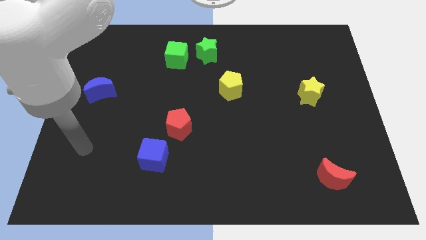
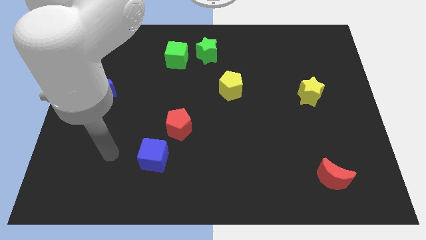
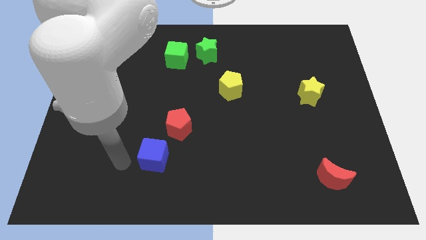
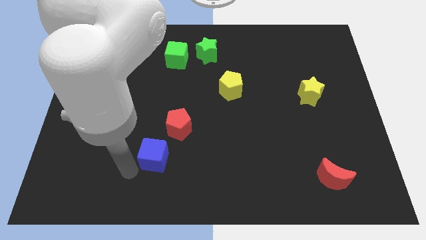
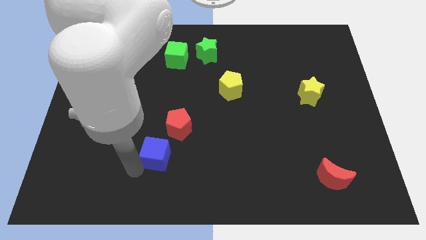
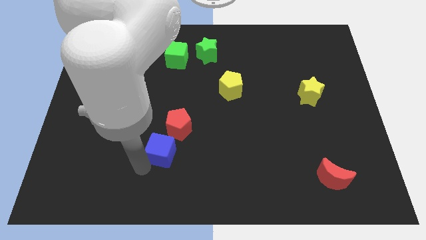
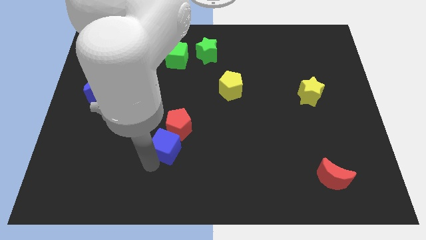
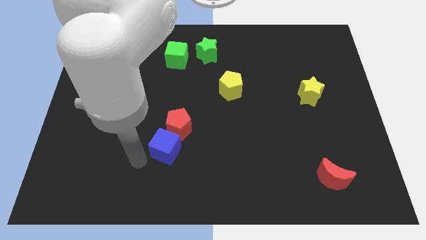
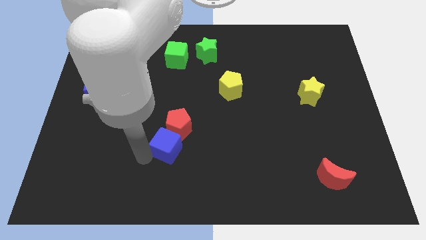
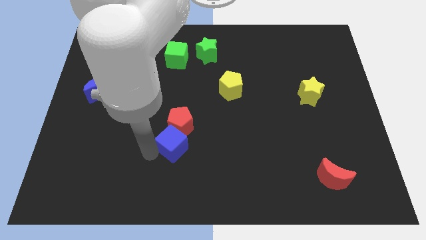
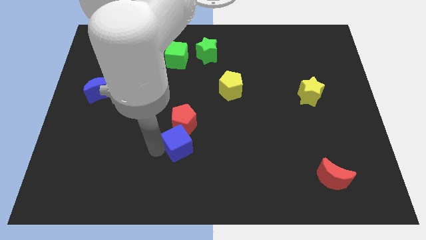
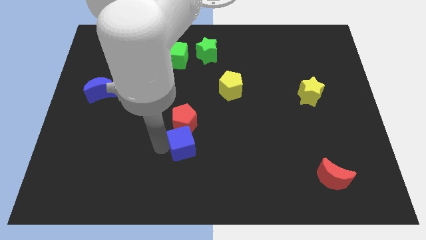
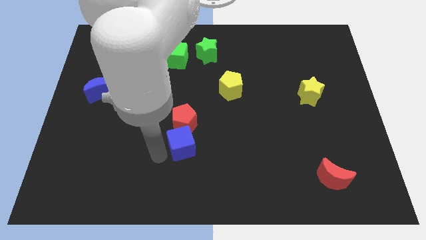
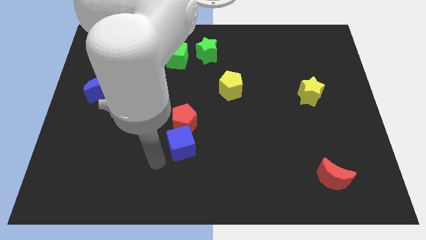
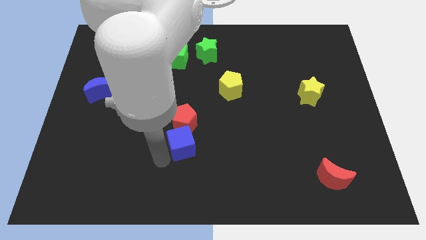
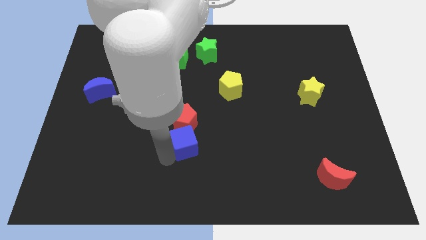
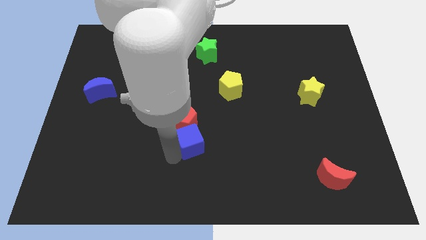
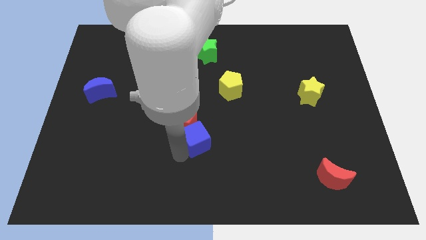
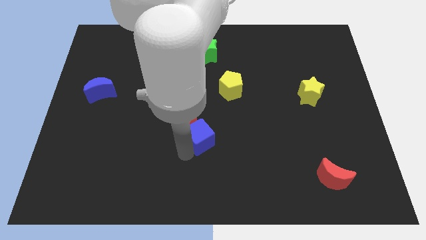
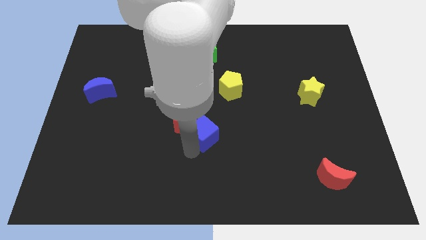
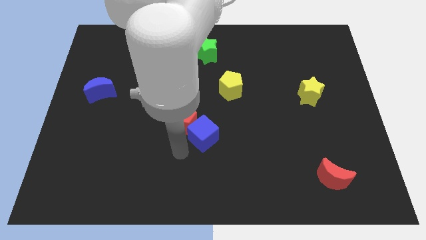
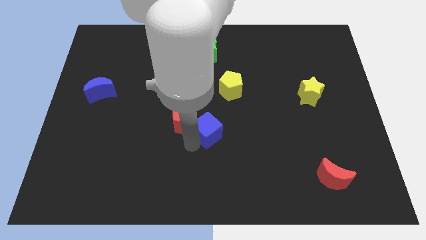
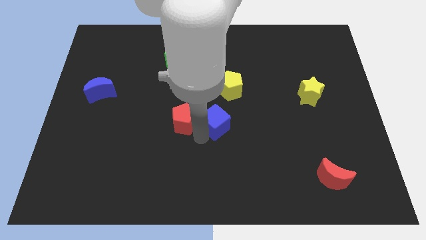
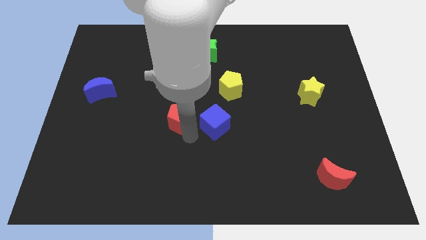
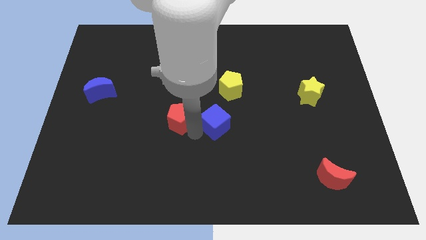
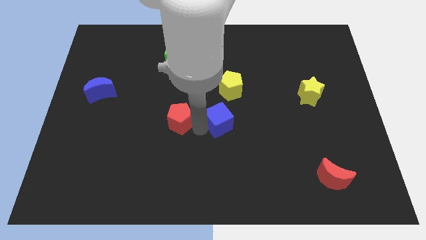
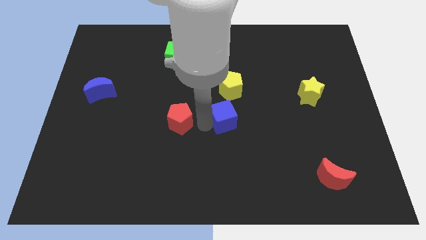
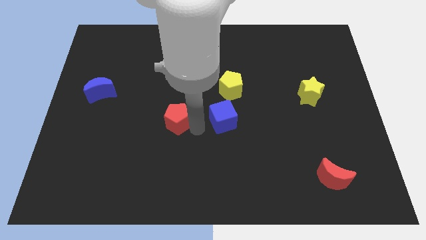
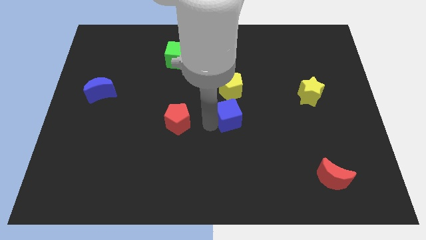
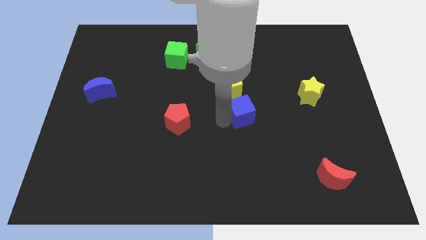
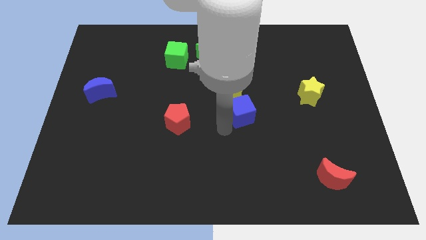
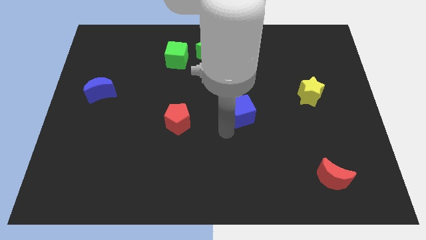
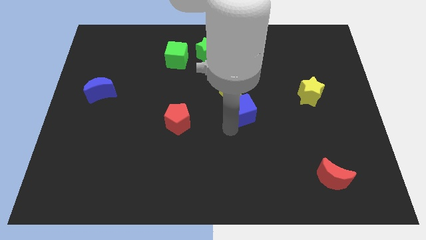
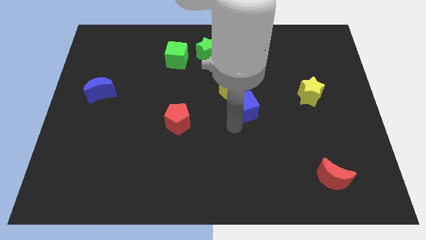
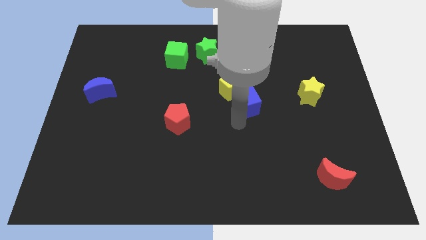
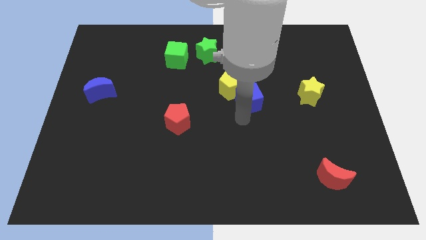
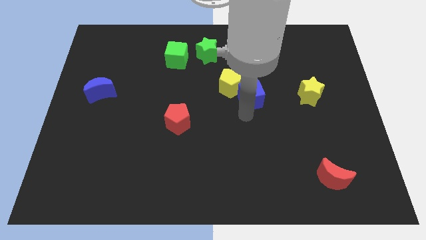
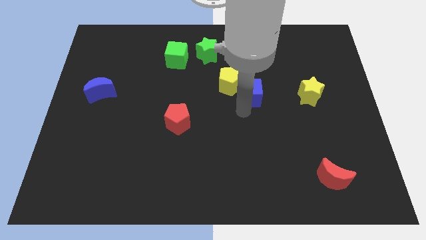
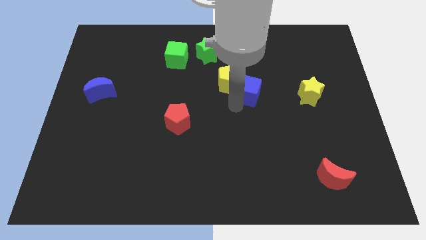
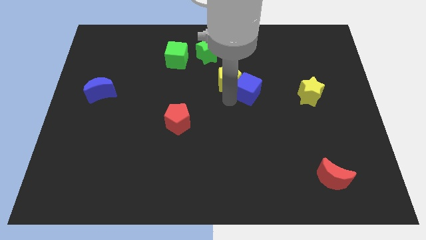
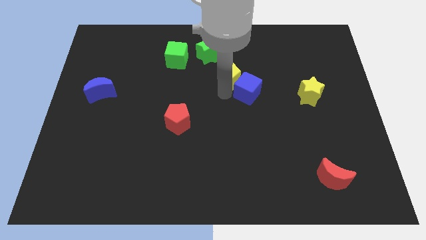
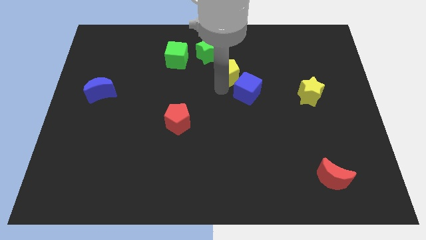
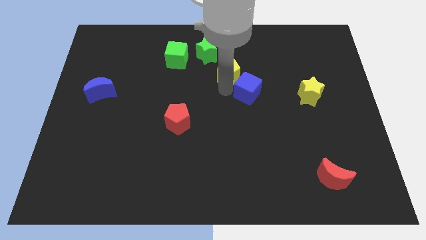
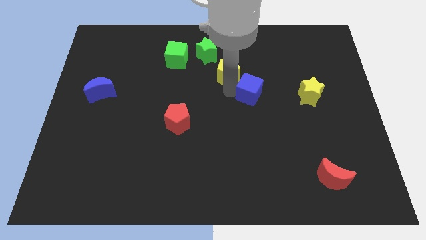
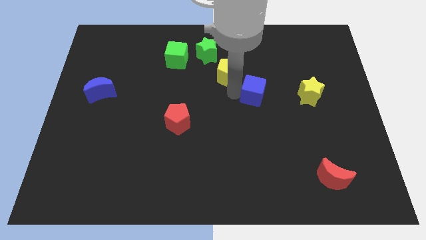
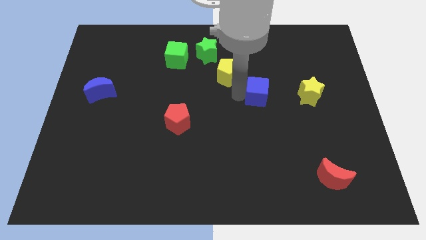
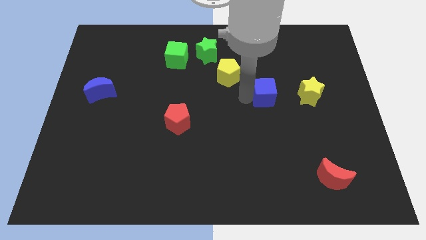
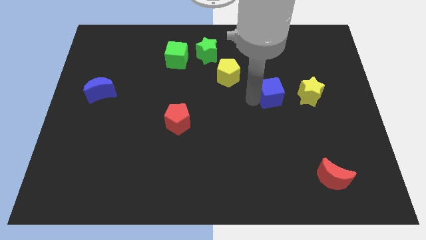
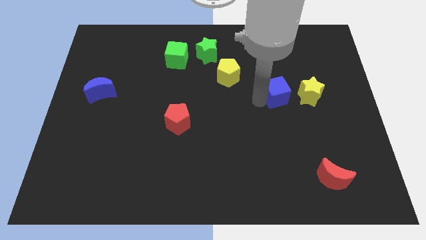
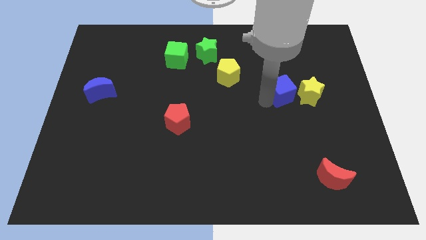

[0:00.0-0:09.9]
move the blue cube to the top left of the yellow star

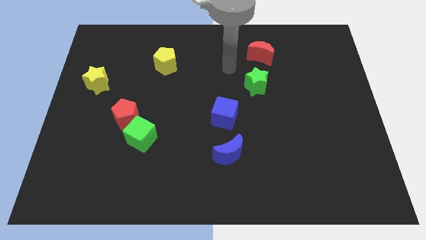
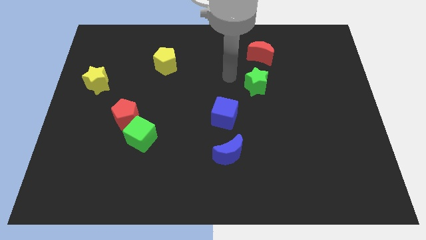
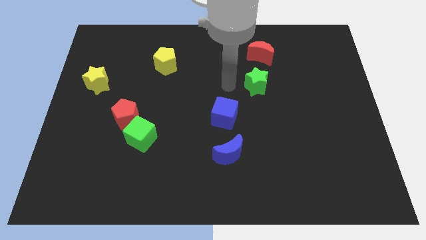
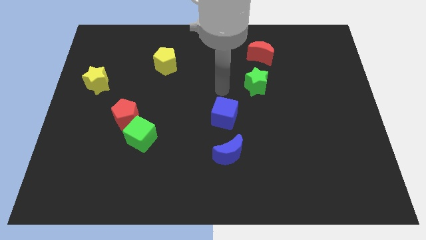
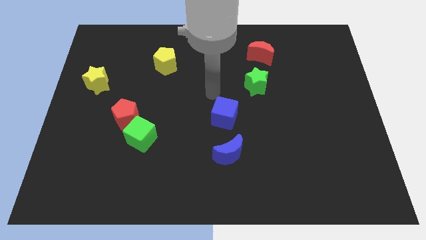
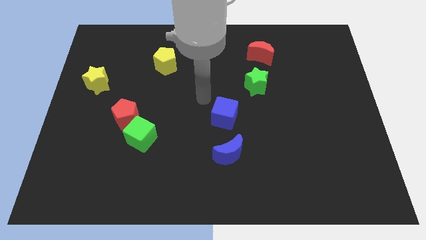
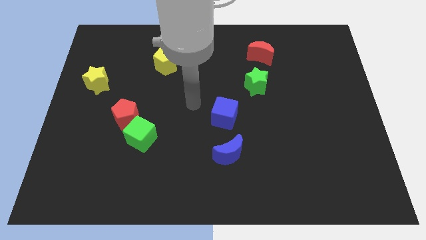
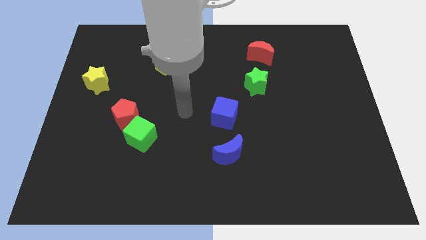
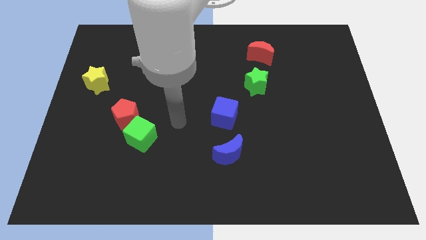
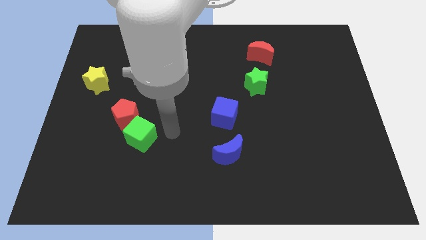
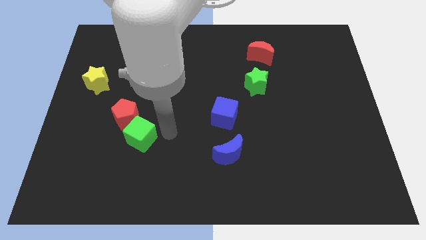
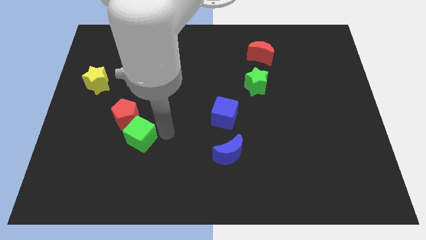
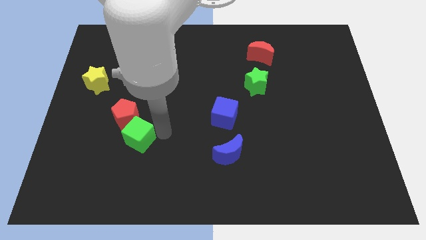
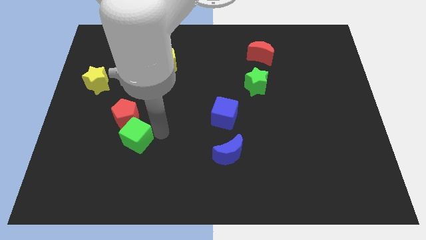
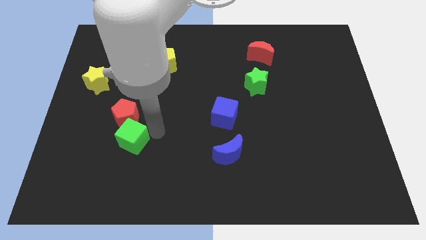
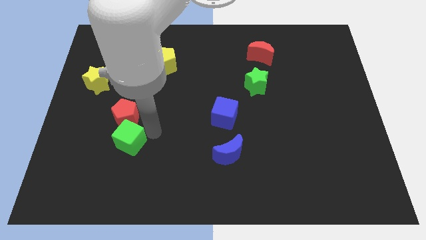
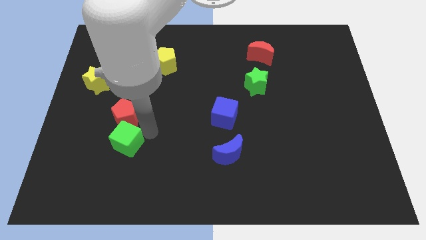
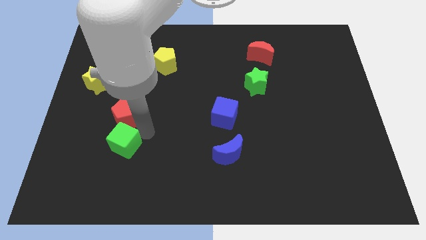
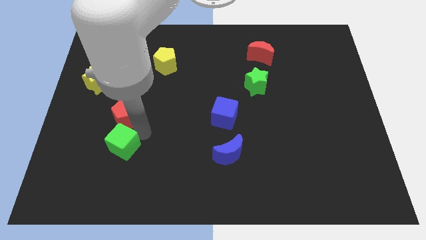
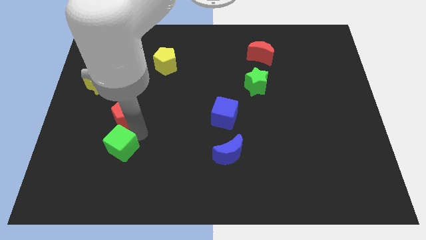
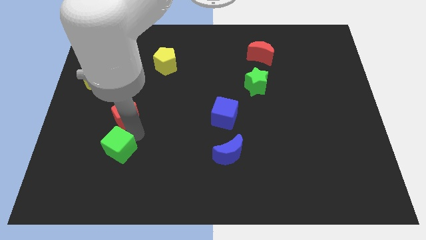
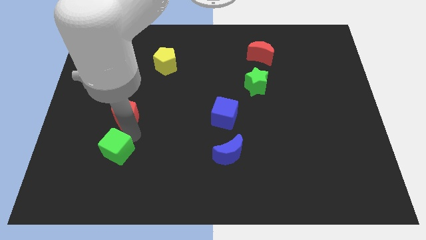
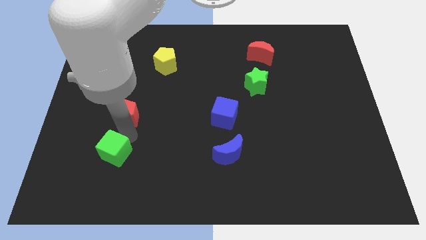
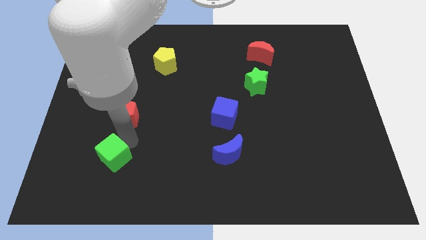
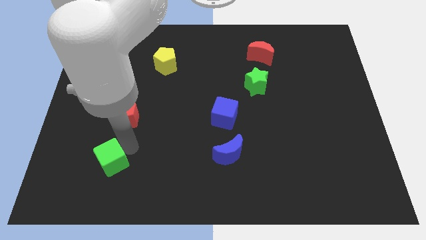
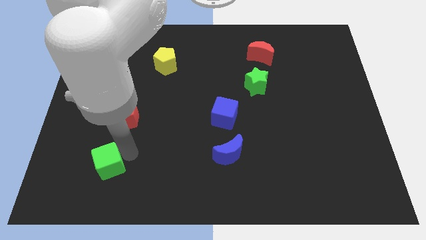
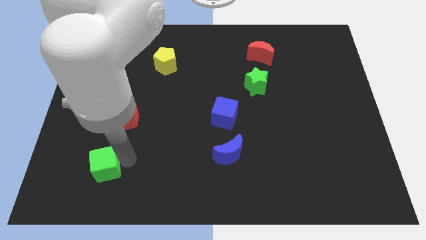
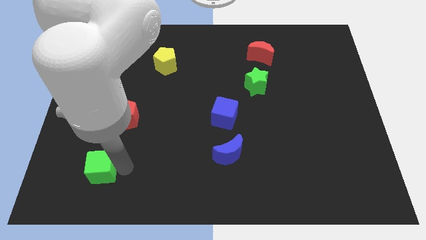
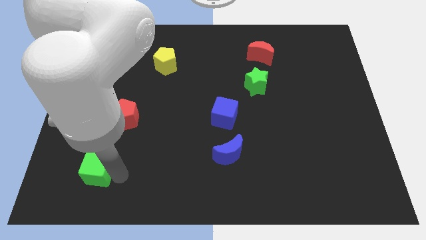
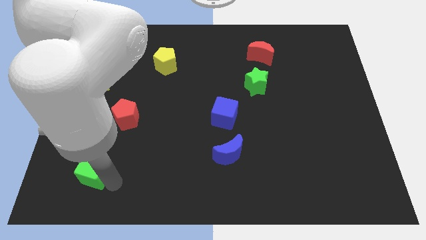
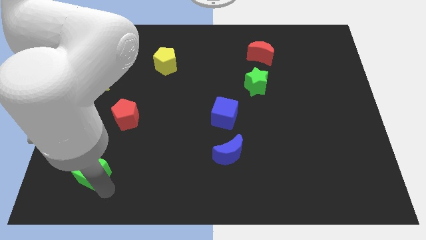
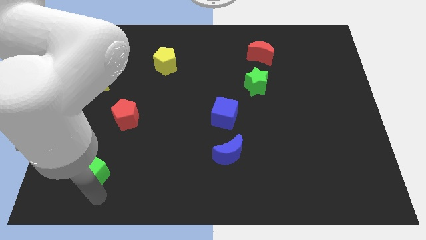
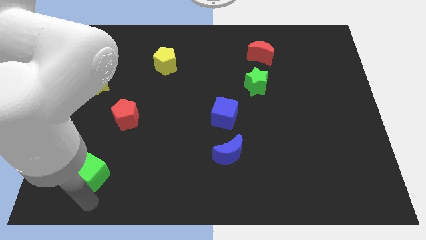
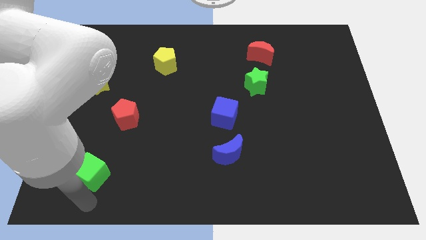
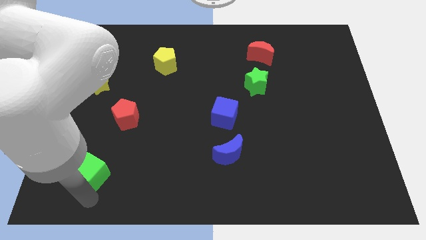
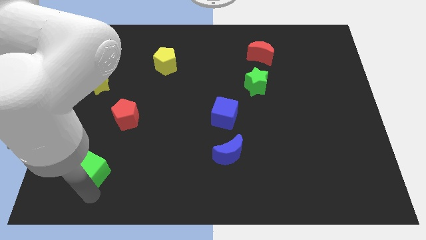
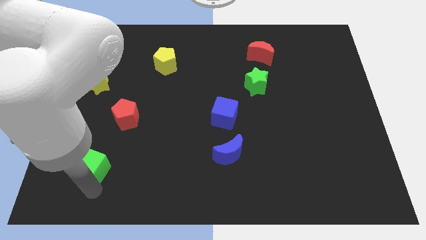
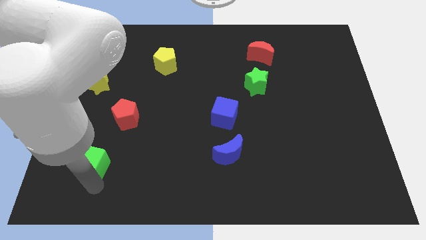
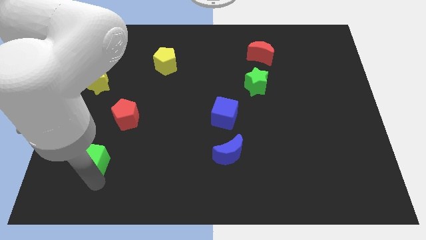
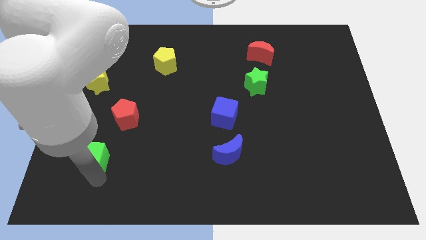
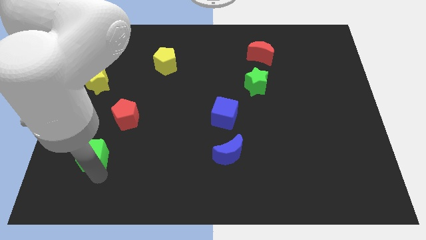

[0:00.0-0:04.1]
move the green cube to the bottom left of the red pentagon
